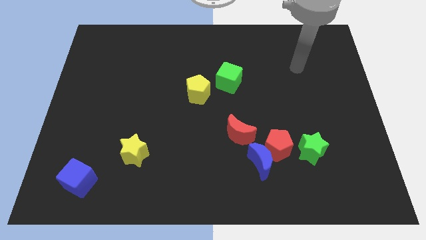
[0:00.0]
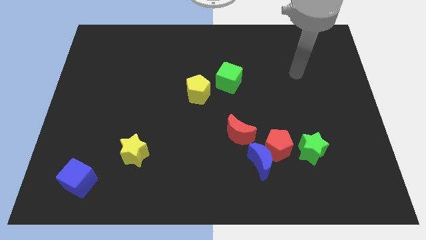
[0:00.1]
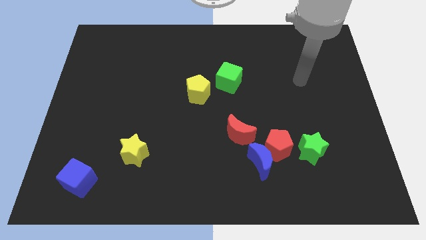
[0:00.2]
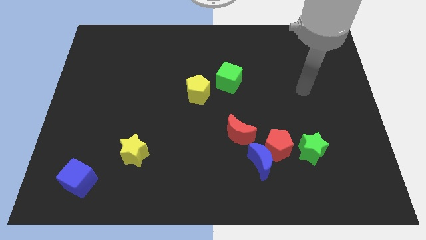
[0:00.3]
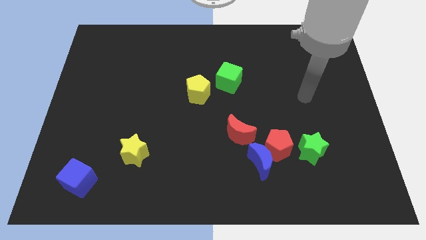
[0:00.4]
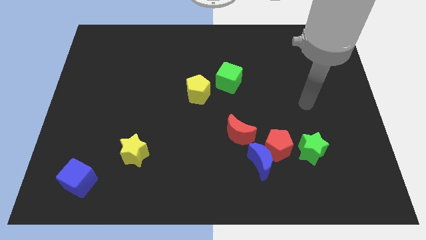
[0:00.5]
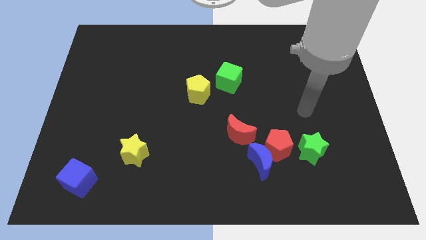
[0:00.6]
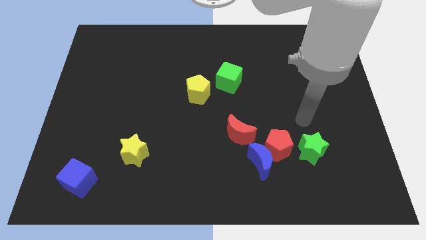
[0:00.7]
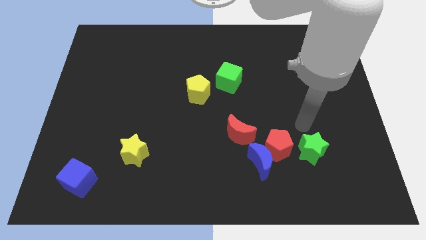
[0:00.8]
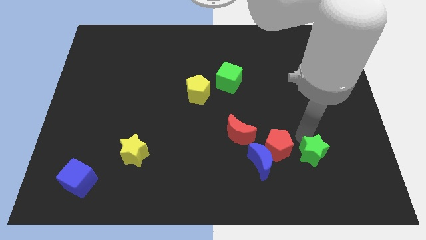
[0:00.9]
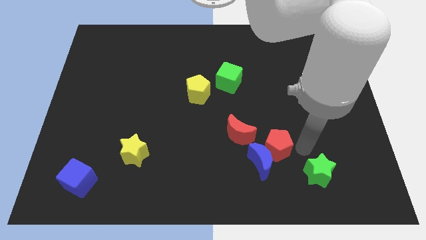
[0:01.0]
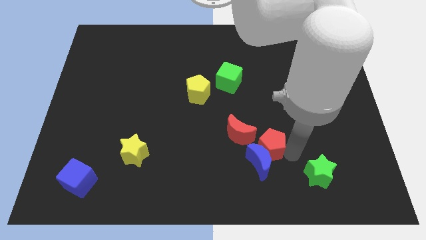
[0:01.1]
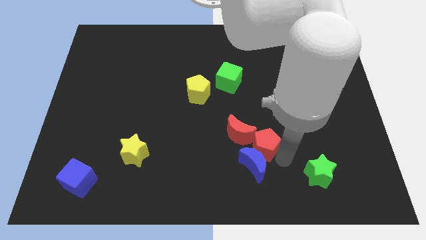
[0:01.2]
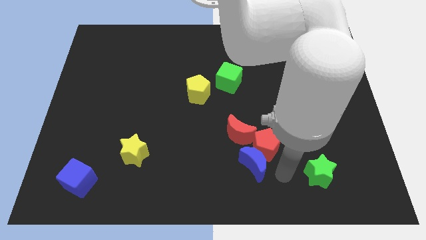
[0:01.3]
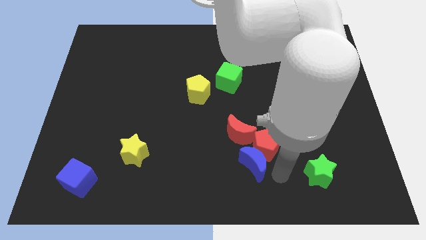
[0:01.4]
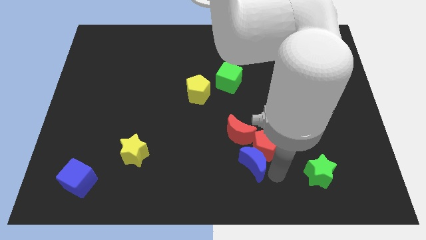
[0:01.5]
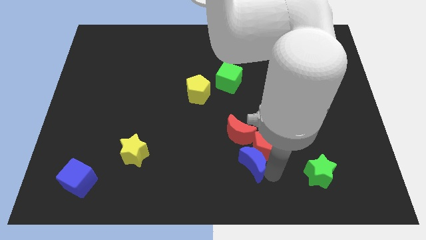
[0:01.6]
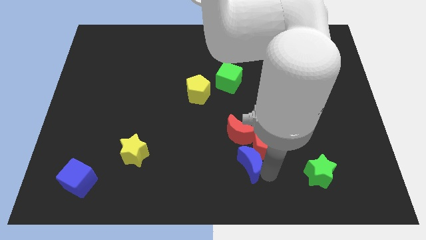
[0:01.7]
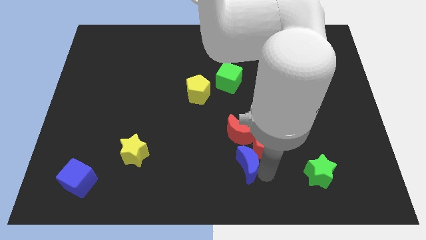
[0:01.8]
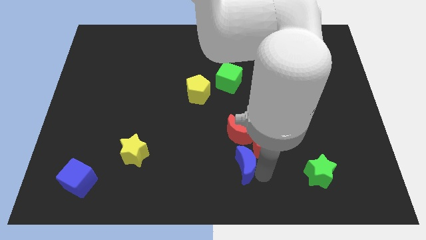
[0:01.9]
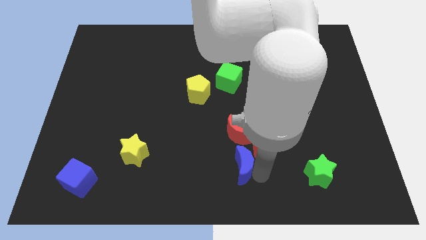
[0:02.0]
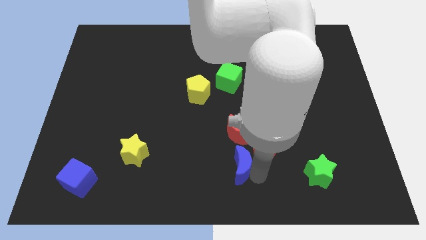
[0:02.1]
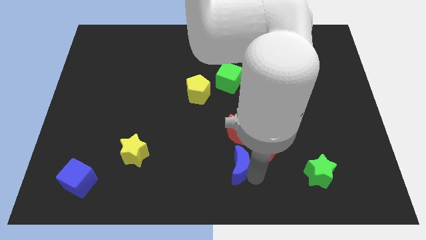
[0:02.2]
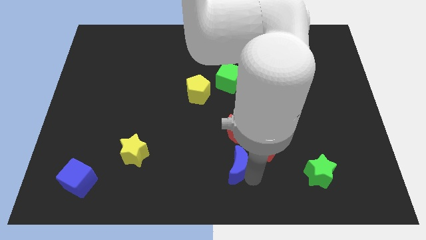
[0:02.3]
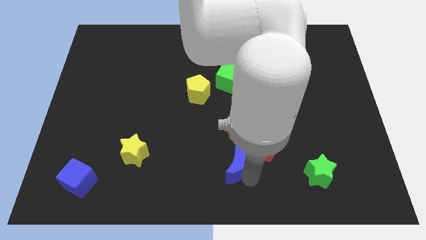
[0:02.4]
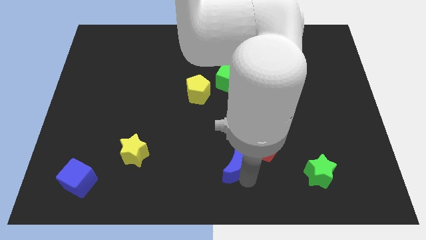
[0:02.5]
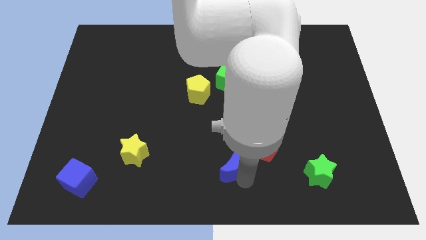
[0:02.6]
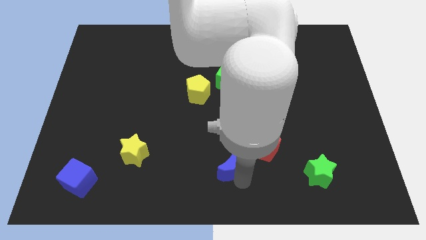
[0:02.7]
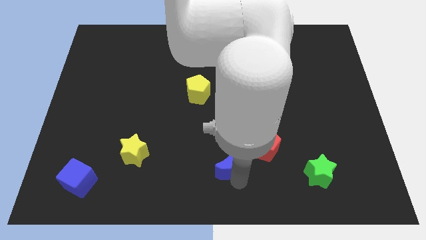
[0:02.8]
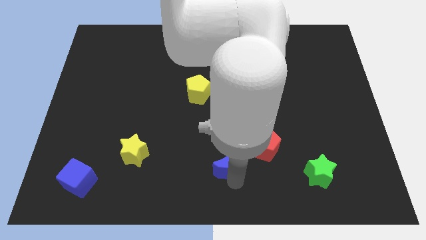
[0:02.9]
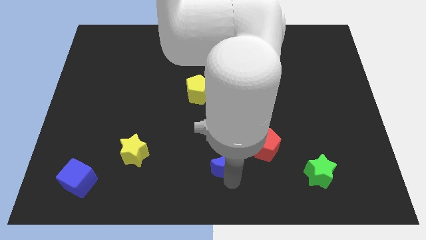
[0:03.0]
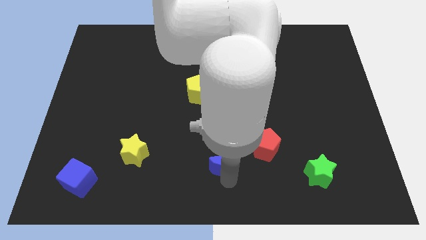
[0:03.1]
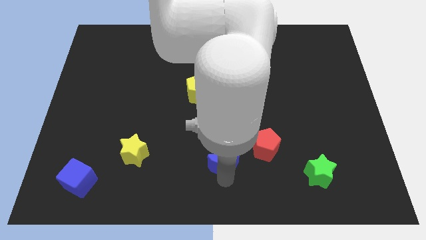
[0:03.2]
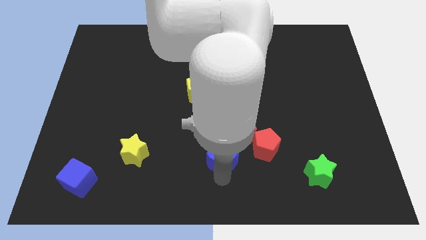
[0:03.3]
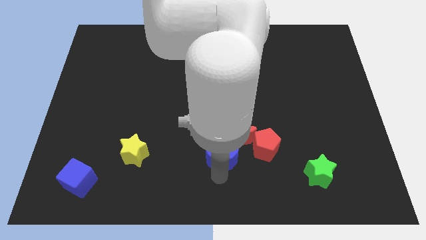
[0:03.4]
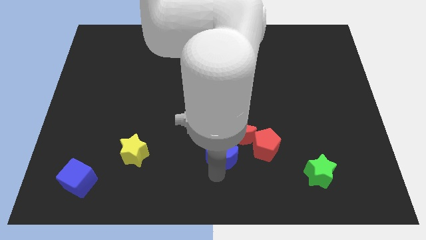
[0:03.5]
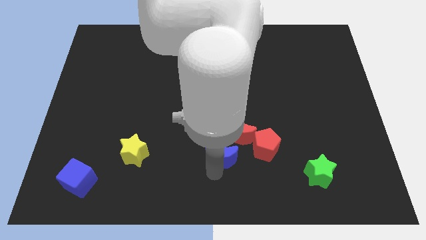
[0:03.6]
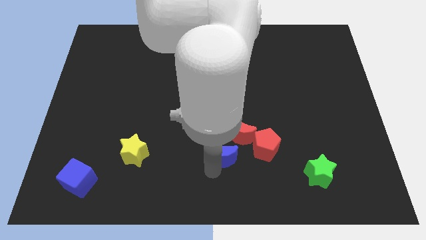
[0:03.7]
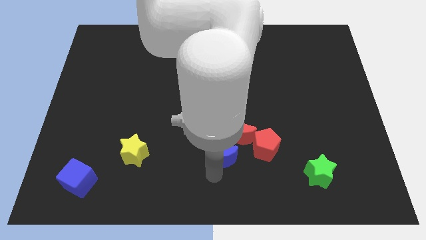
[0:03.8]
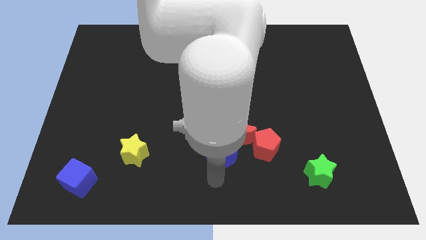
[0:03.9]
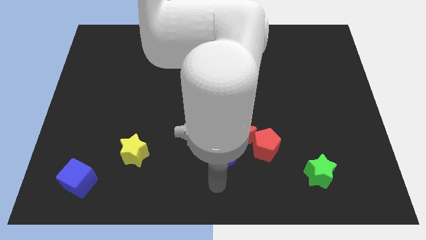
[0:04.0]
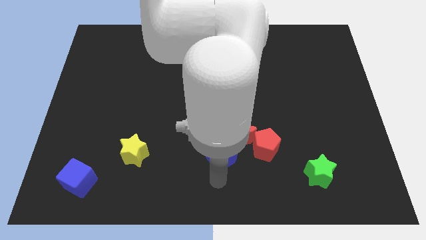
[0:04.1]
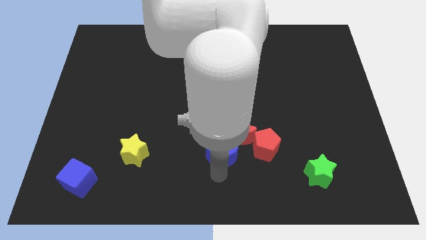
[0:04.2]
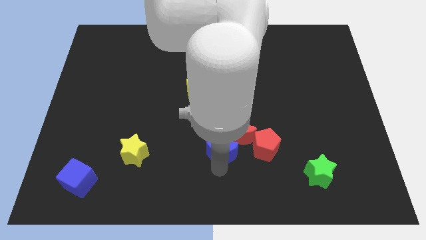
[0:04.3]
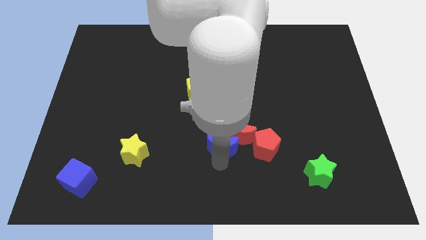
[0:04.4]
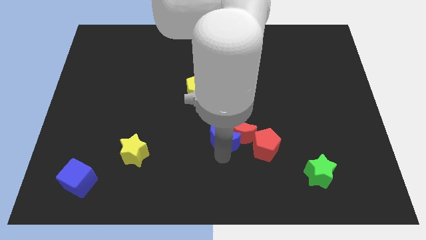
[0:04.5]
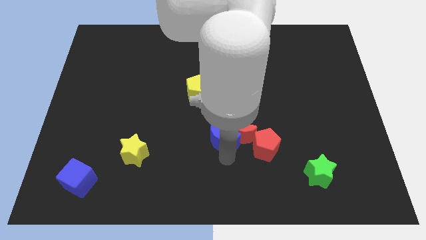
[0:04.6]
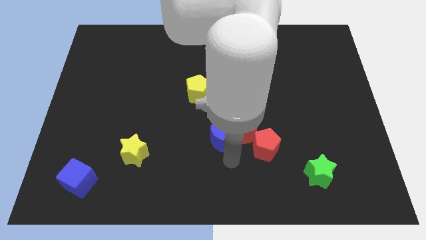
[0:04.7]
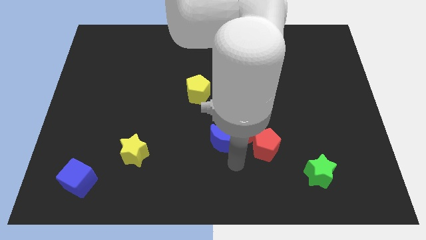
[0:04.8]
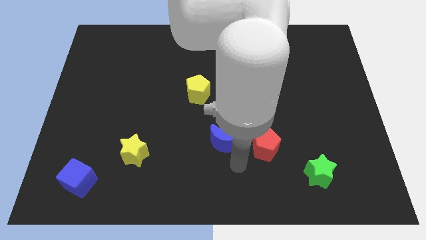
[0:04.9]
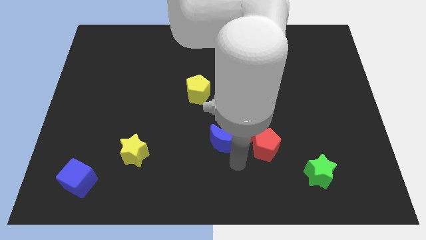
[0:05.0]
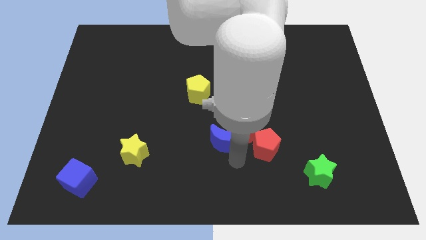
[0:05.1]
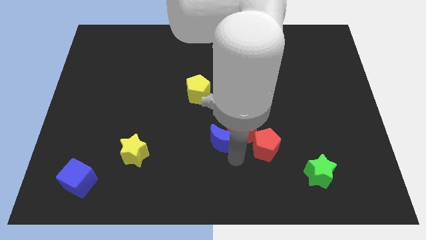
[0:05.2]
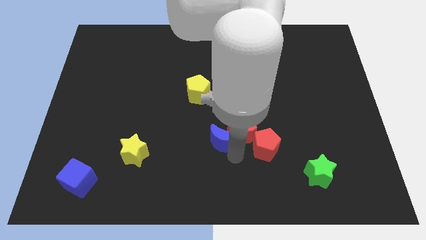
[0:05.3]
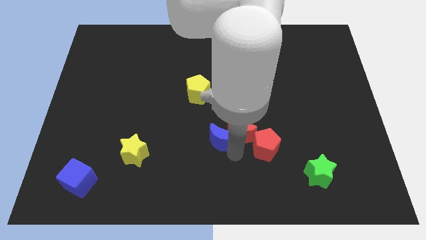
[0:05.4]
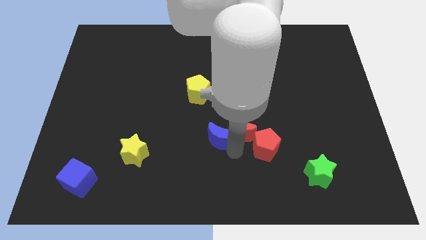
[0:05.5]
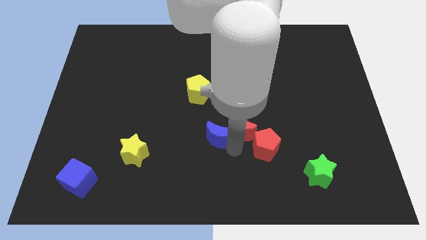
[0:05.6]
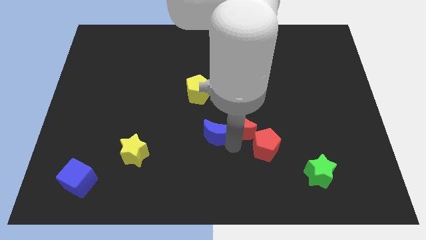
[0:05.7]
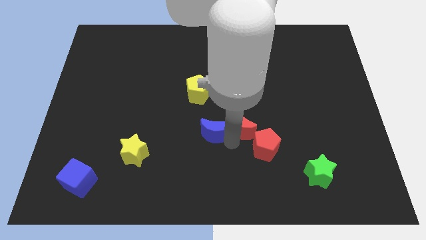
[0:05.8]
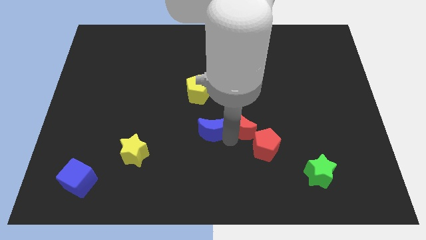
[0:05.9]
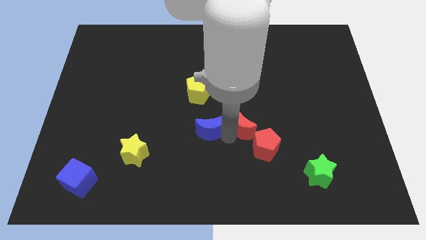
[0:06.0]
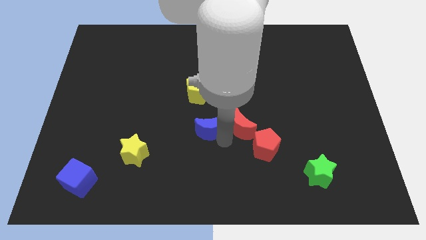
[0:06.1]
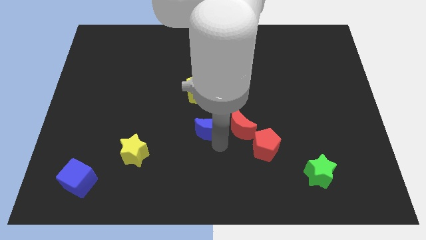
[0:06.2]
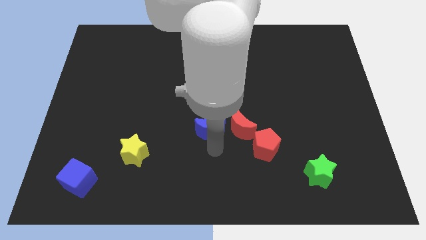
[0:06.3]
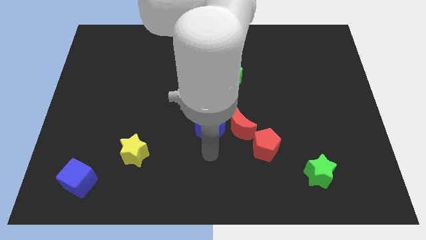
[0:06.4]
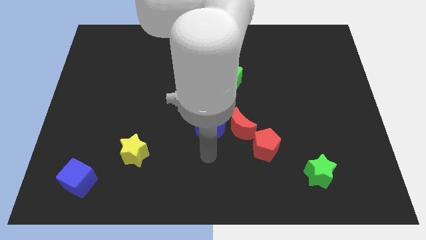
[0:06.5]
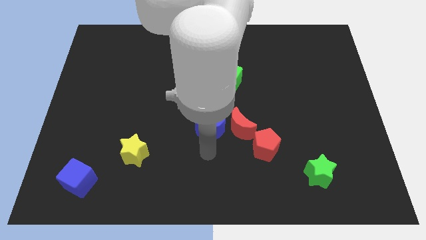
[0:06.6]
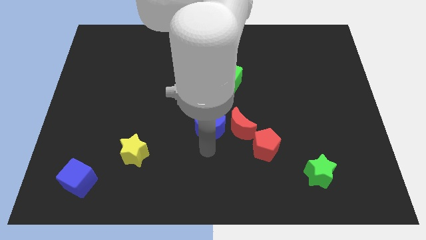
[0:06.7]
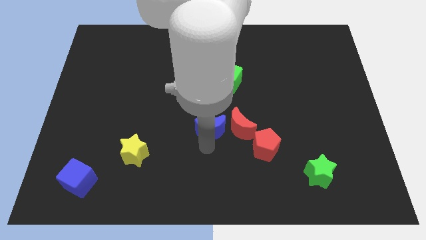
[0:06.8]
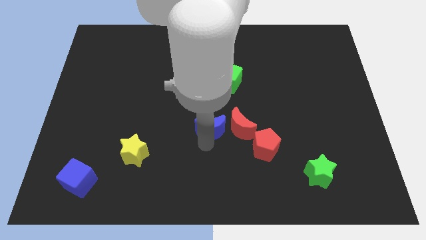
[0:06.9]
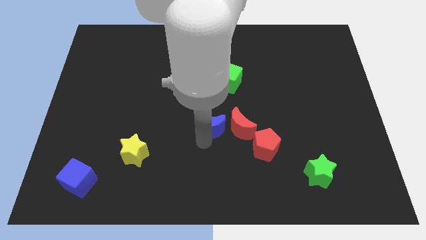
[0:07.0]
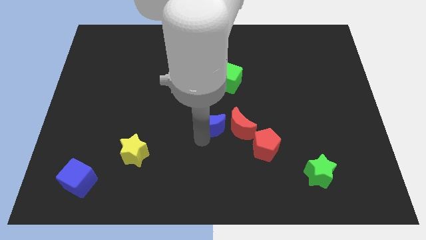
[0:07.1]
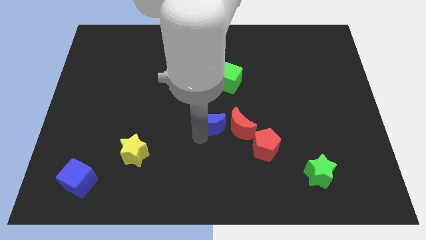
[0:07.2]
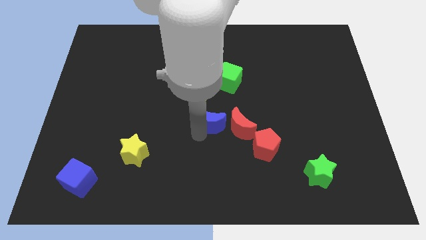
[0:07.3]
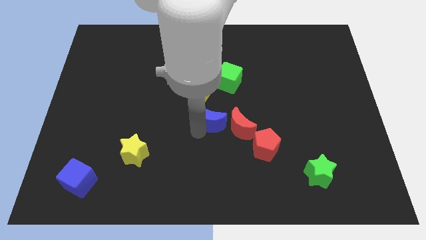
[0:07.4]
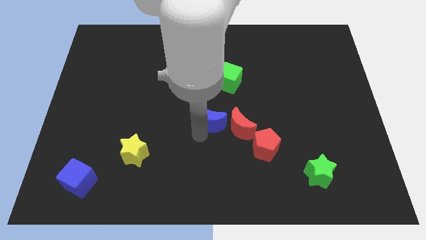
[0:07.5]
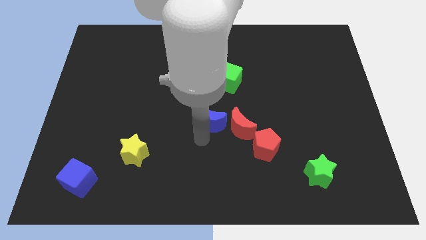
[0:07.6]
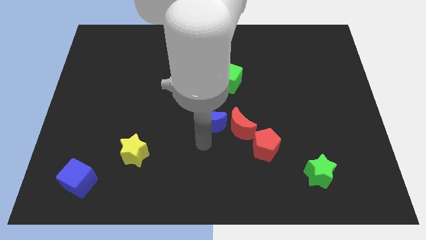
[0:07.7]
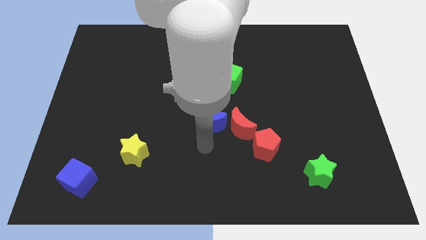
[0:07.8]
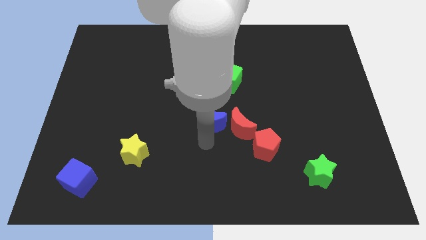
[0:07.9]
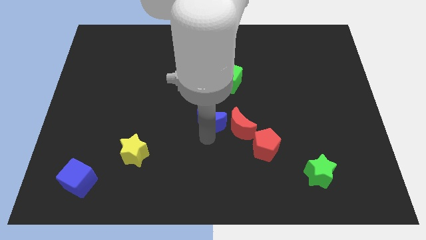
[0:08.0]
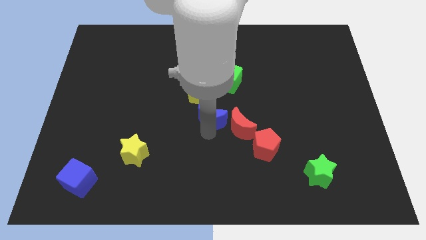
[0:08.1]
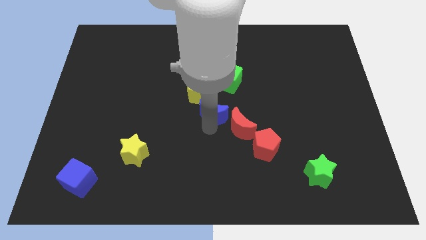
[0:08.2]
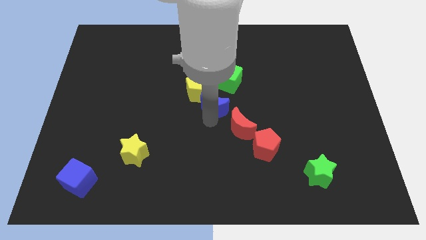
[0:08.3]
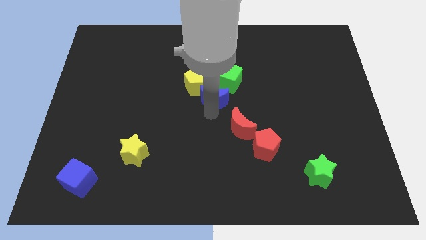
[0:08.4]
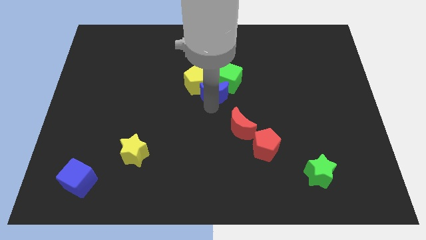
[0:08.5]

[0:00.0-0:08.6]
push the blue moon next to the green cube
